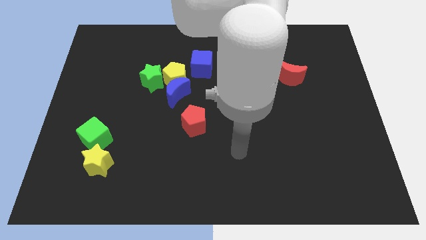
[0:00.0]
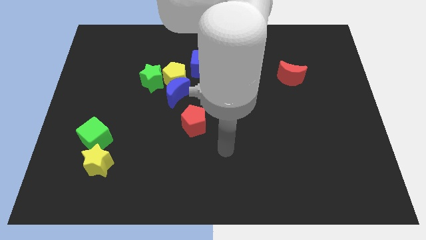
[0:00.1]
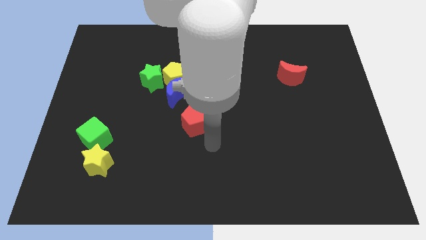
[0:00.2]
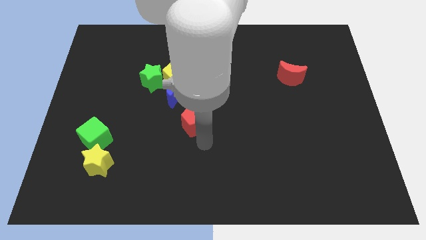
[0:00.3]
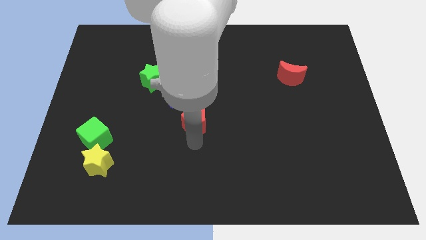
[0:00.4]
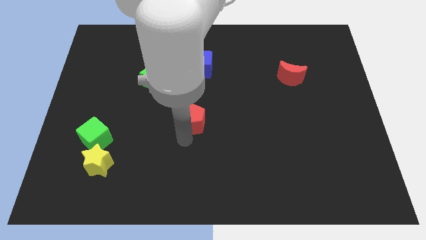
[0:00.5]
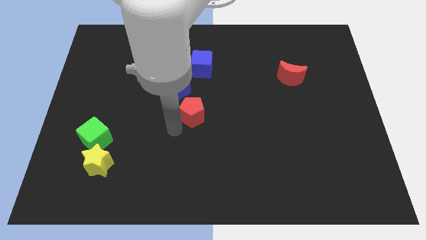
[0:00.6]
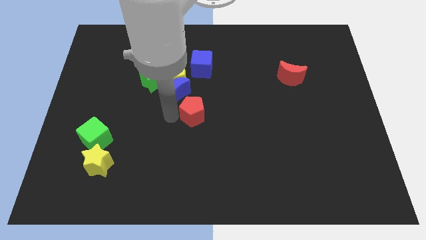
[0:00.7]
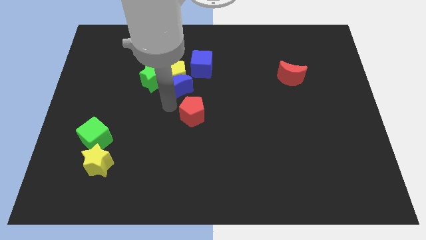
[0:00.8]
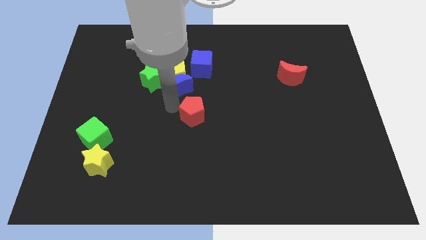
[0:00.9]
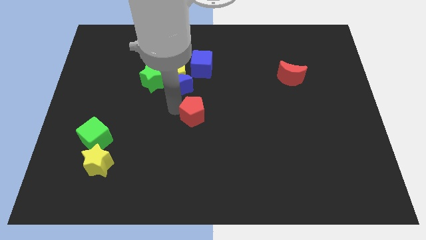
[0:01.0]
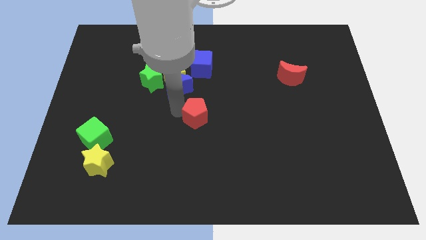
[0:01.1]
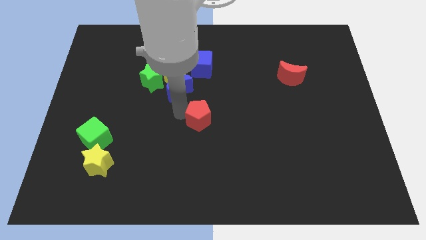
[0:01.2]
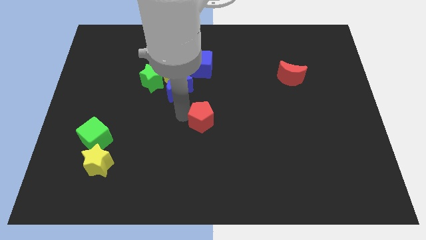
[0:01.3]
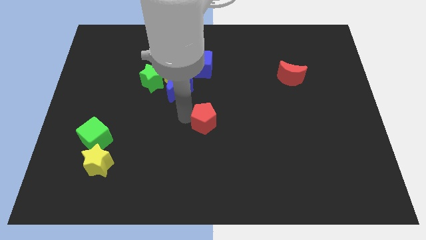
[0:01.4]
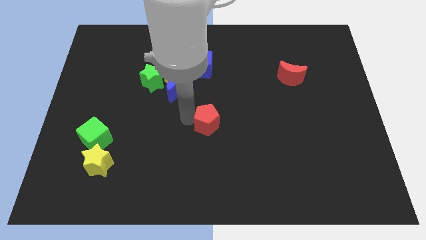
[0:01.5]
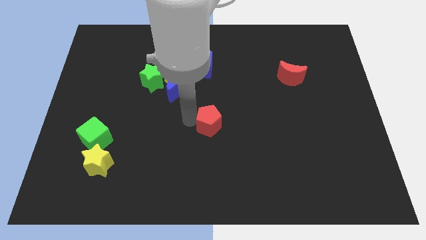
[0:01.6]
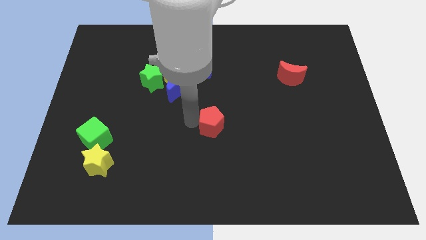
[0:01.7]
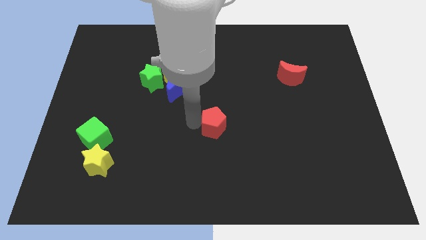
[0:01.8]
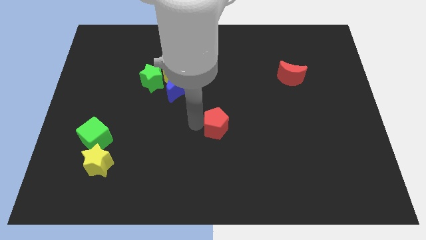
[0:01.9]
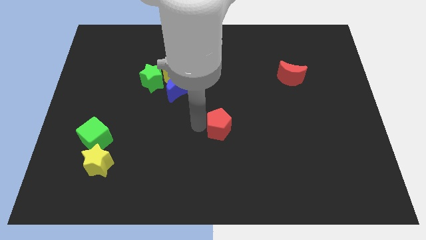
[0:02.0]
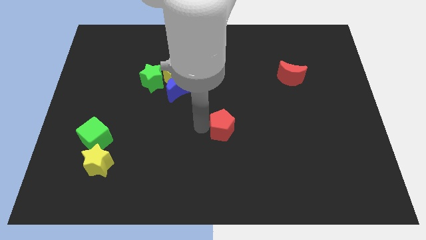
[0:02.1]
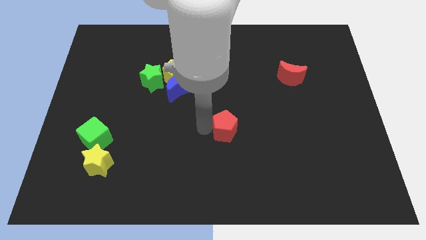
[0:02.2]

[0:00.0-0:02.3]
push the red pentagon to the right a little

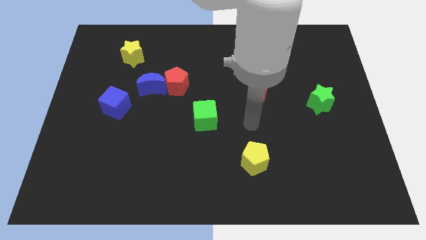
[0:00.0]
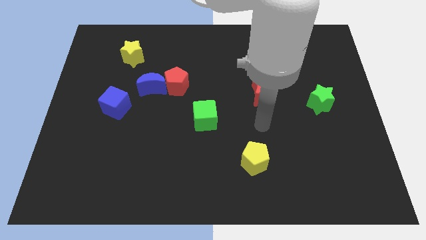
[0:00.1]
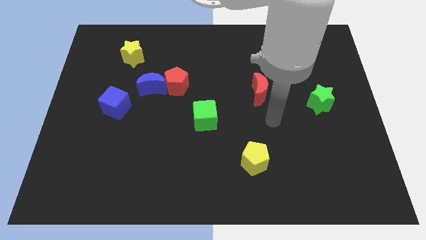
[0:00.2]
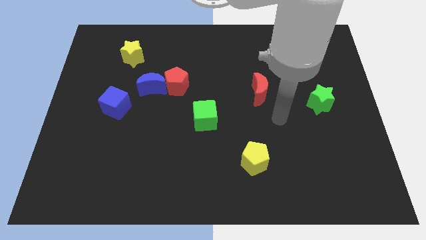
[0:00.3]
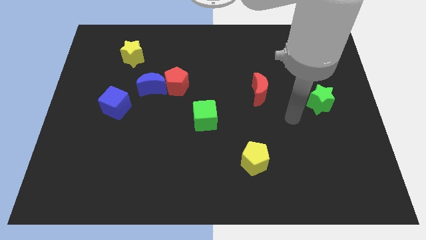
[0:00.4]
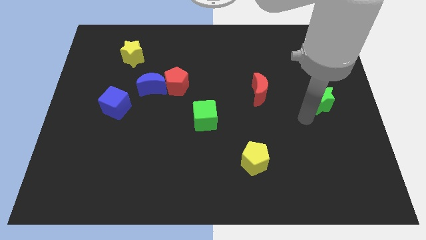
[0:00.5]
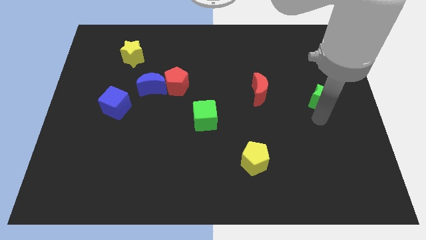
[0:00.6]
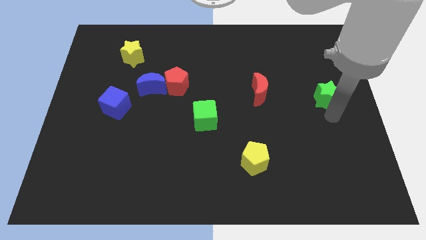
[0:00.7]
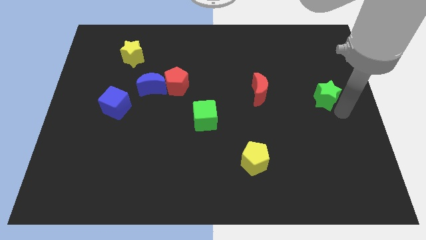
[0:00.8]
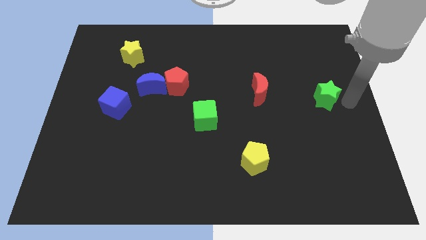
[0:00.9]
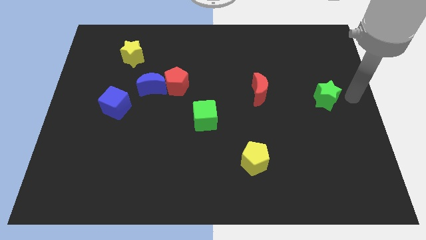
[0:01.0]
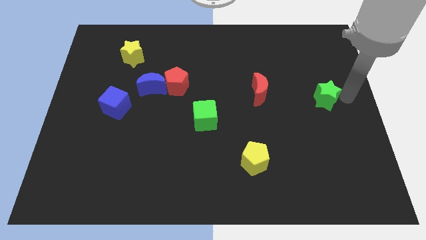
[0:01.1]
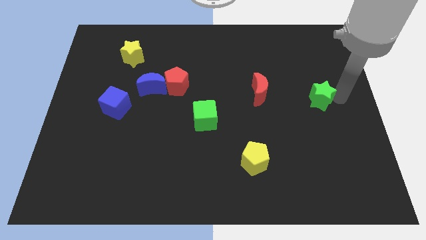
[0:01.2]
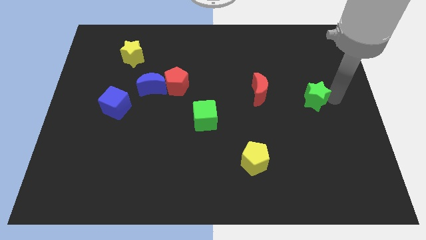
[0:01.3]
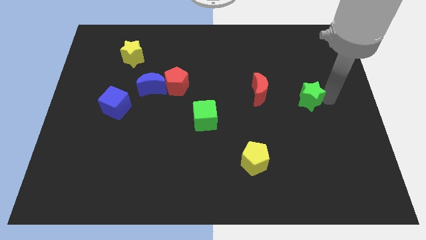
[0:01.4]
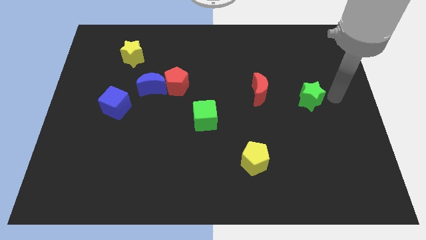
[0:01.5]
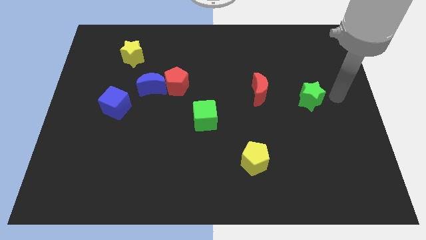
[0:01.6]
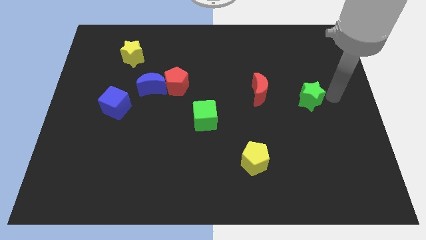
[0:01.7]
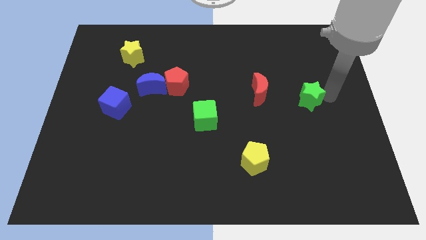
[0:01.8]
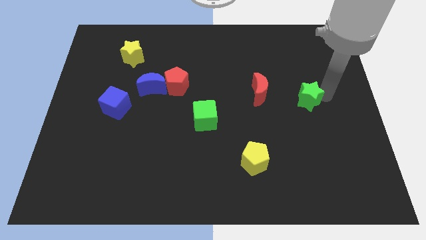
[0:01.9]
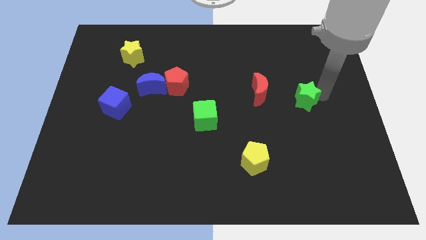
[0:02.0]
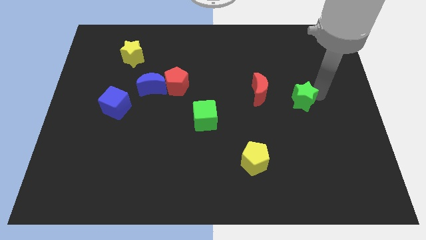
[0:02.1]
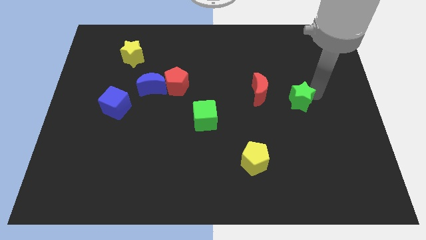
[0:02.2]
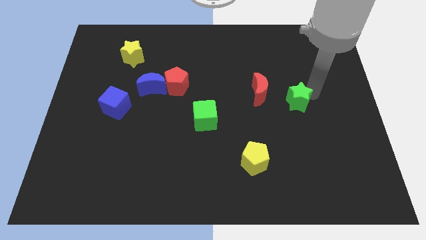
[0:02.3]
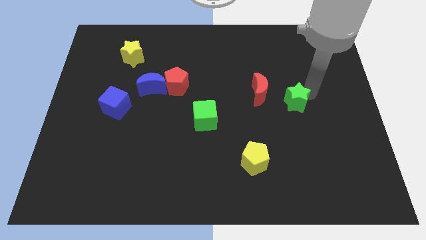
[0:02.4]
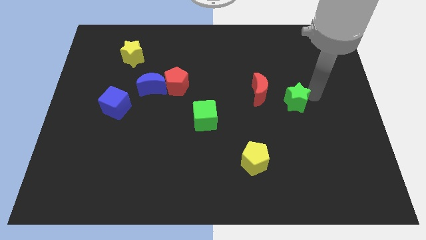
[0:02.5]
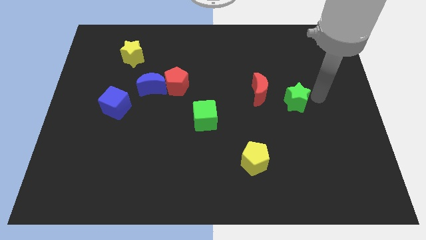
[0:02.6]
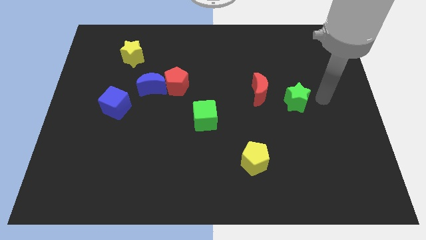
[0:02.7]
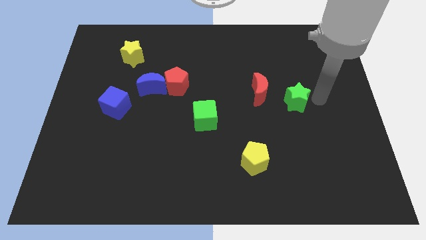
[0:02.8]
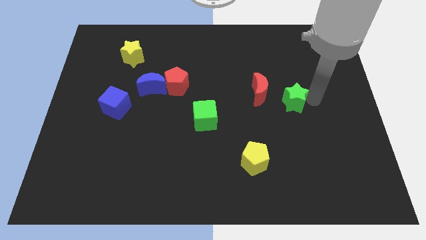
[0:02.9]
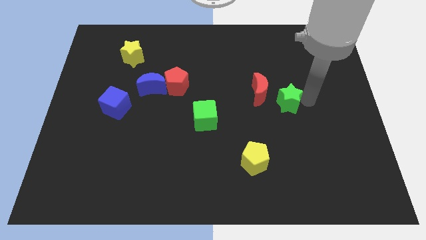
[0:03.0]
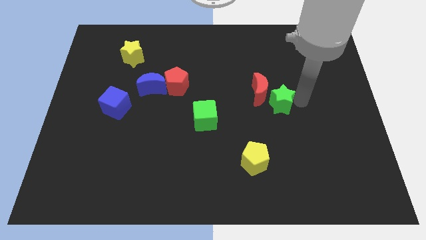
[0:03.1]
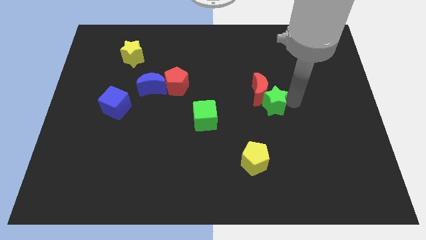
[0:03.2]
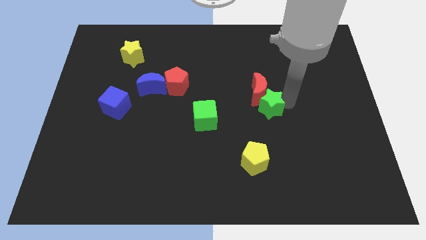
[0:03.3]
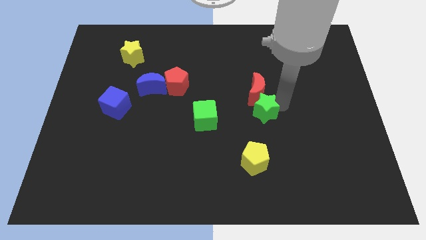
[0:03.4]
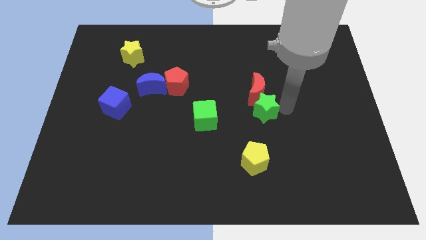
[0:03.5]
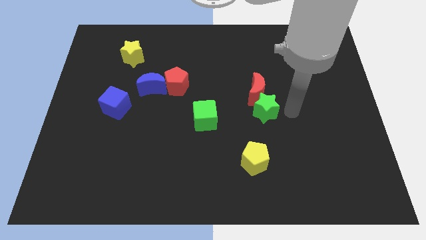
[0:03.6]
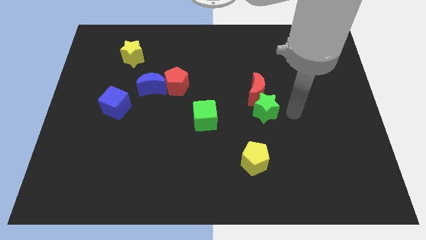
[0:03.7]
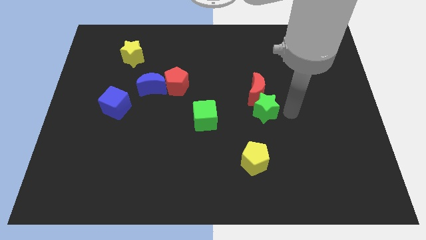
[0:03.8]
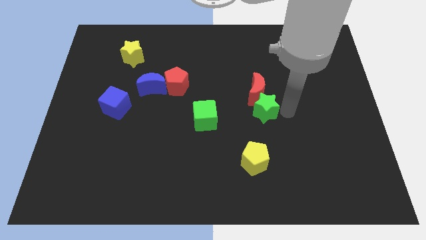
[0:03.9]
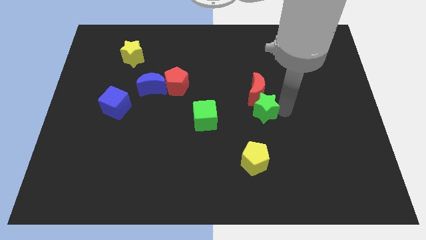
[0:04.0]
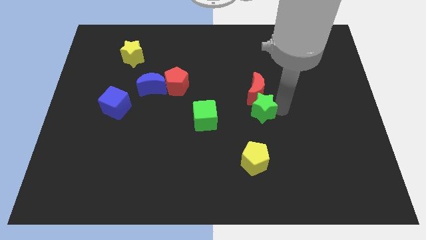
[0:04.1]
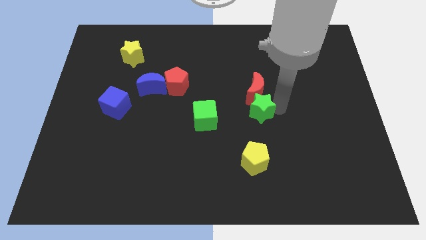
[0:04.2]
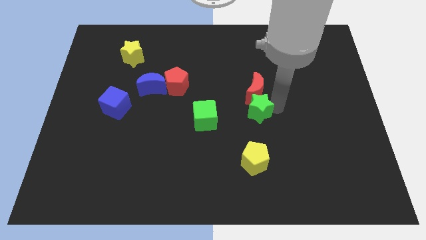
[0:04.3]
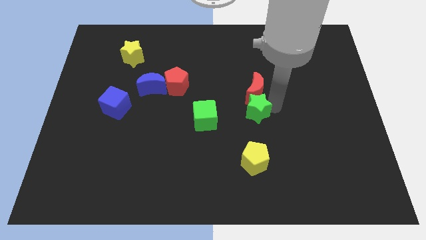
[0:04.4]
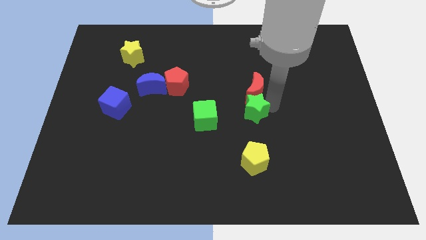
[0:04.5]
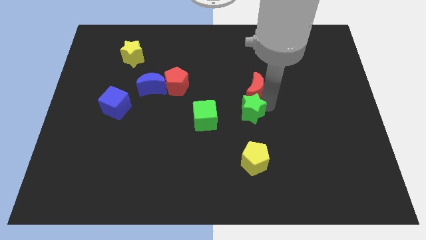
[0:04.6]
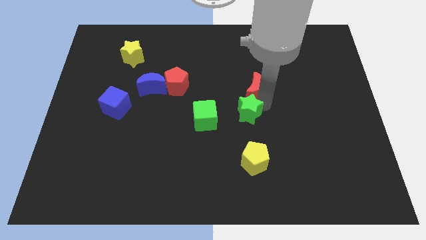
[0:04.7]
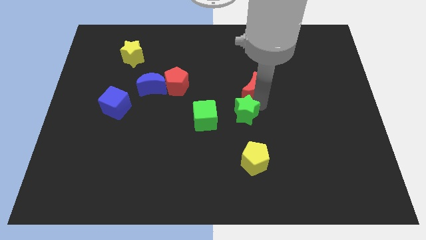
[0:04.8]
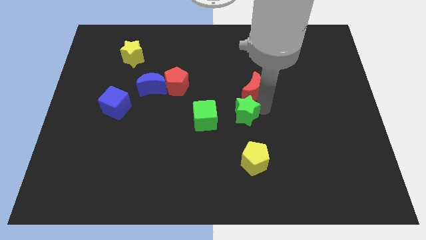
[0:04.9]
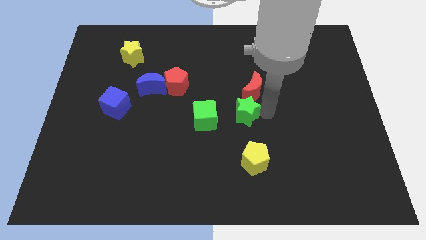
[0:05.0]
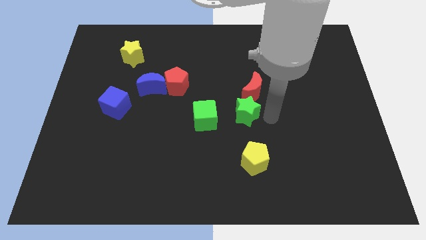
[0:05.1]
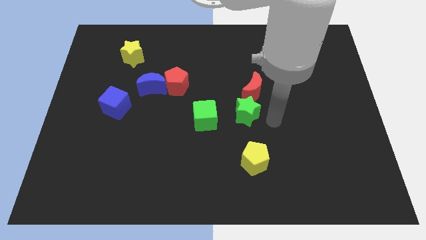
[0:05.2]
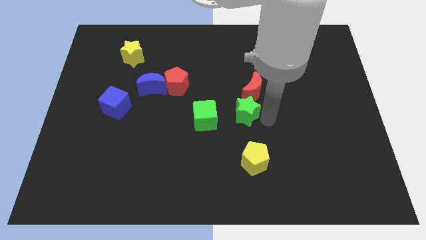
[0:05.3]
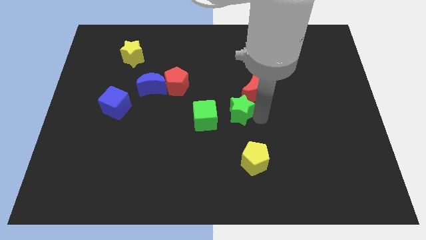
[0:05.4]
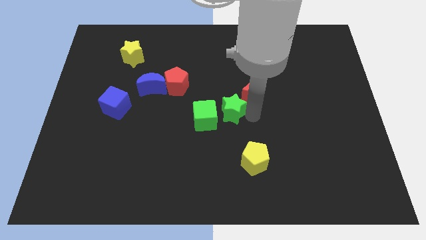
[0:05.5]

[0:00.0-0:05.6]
move the green star to the left

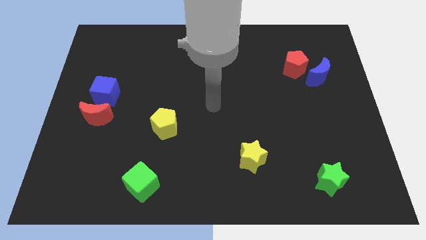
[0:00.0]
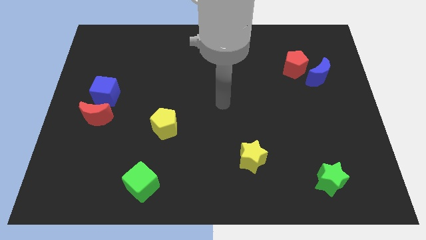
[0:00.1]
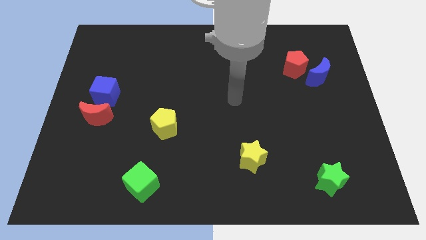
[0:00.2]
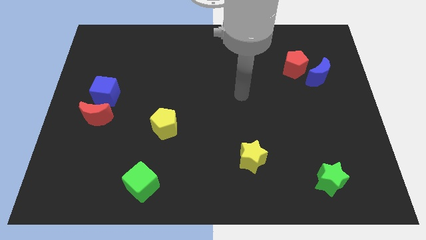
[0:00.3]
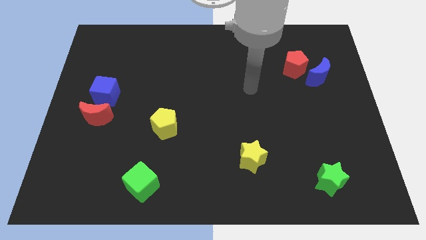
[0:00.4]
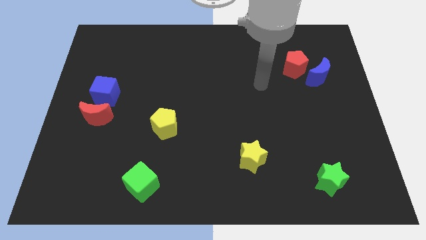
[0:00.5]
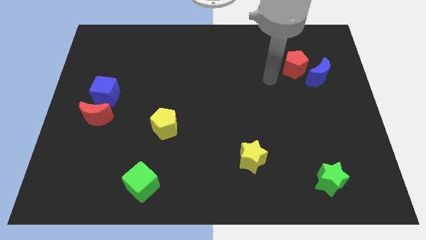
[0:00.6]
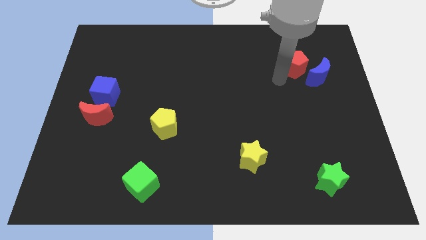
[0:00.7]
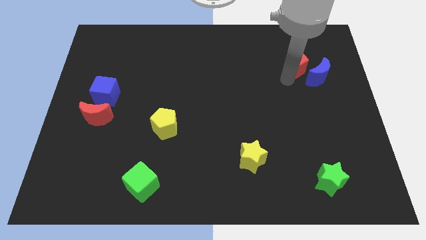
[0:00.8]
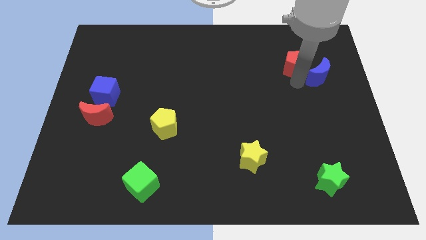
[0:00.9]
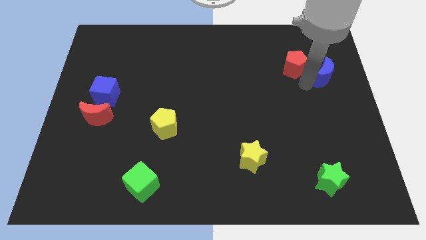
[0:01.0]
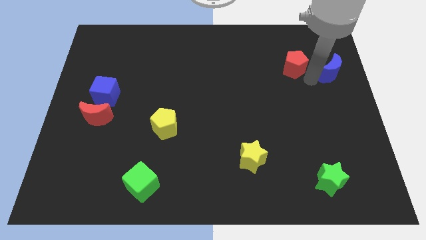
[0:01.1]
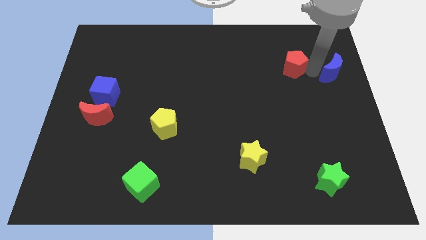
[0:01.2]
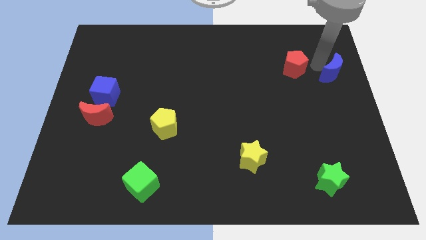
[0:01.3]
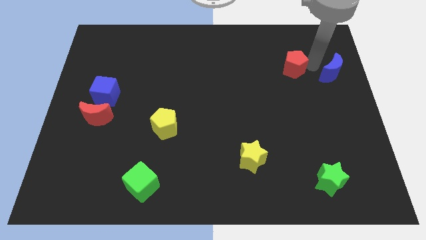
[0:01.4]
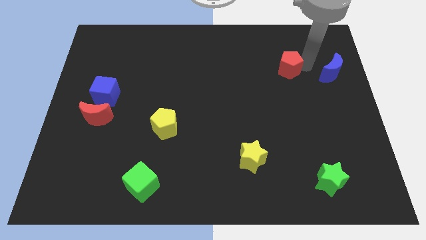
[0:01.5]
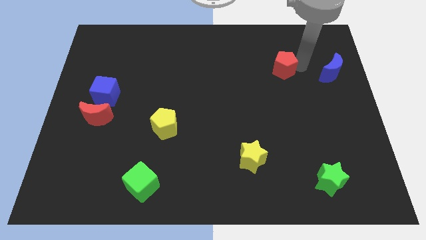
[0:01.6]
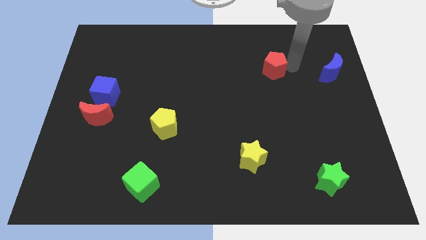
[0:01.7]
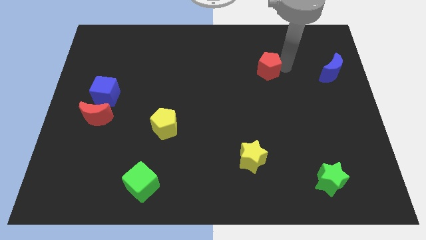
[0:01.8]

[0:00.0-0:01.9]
push the red pentagon a bit left
